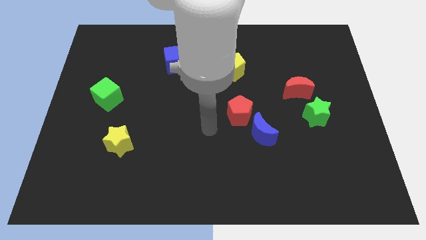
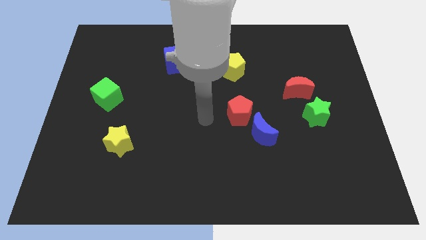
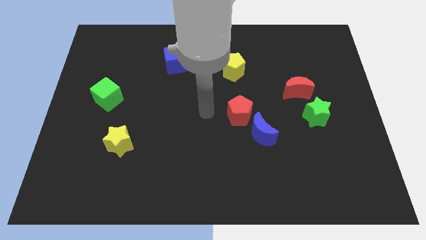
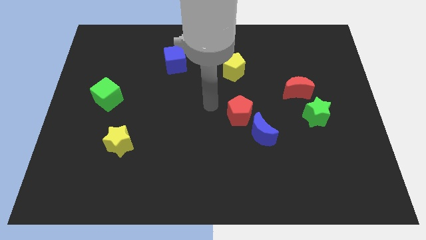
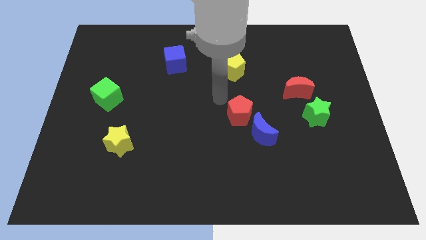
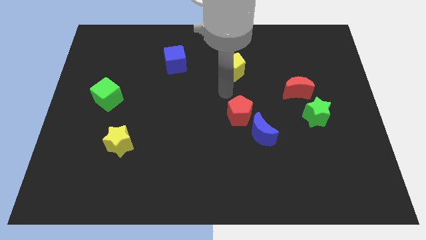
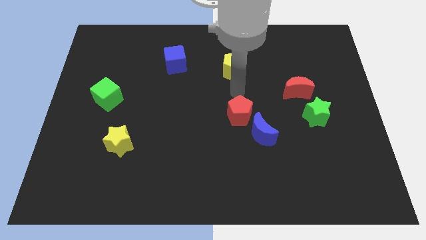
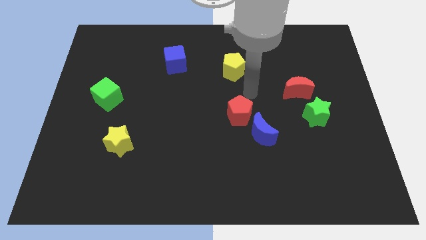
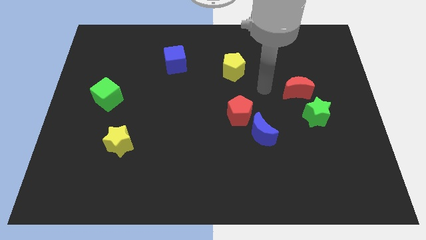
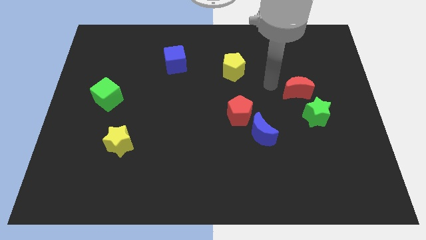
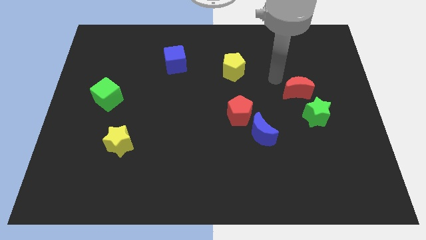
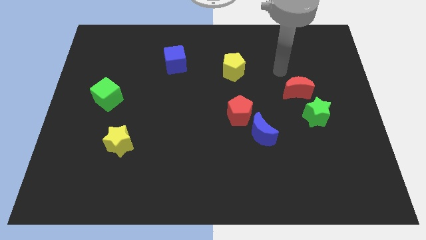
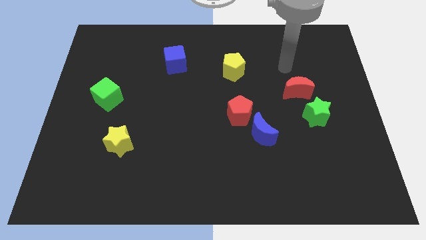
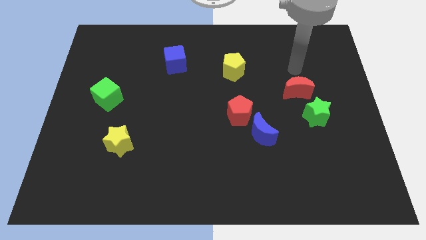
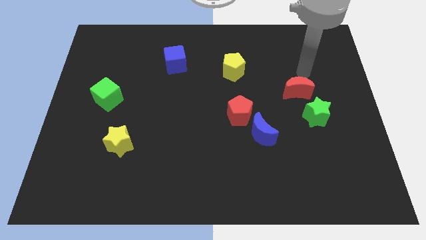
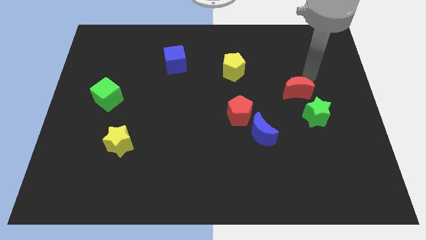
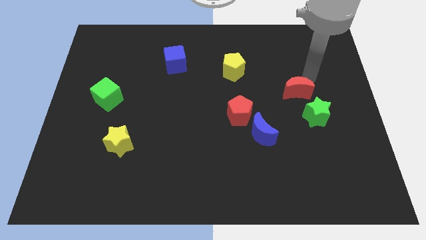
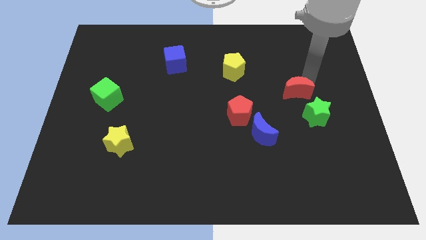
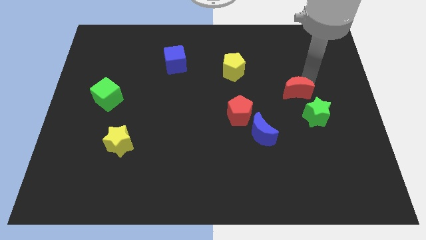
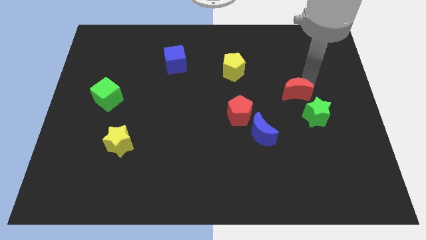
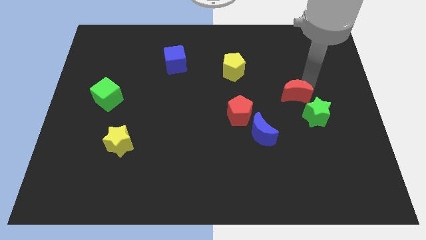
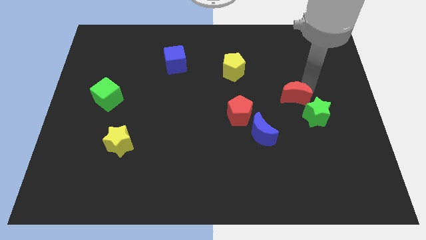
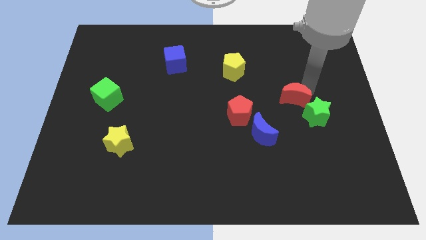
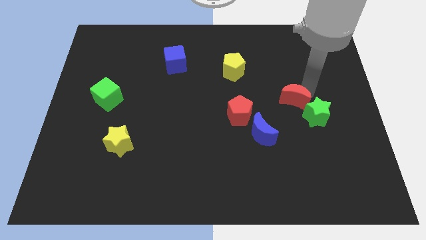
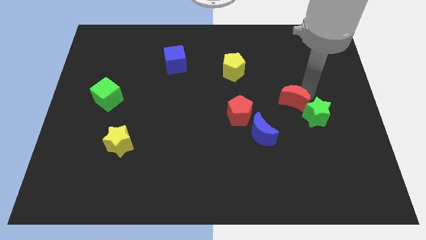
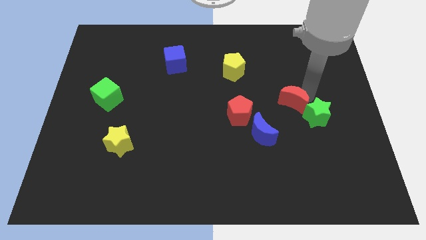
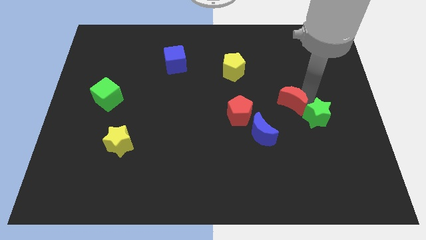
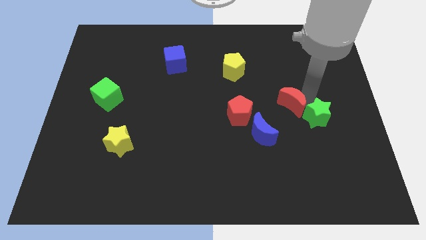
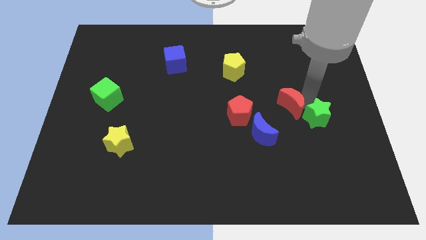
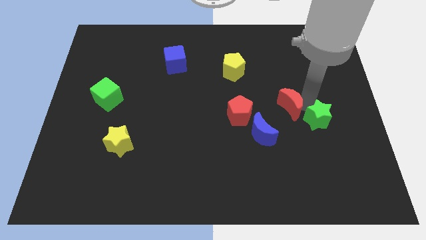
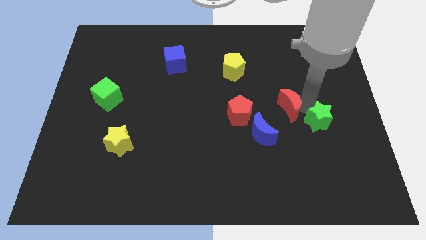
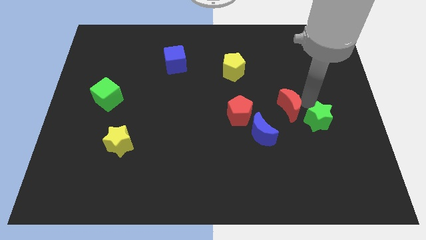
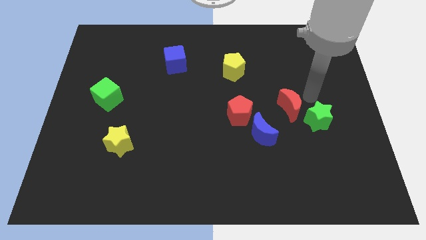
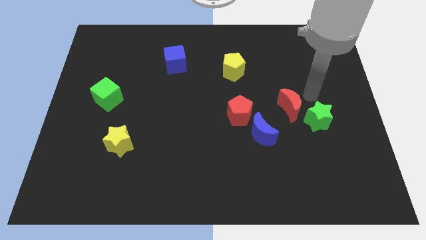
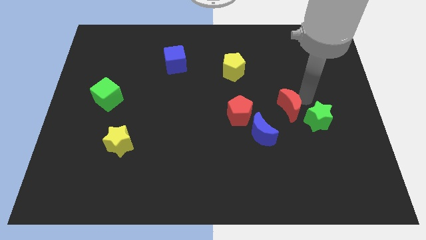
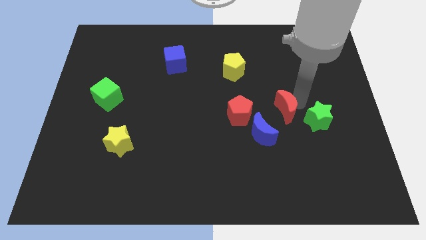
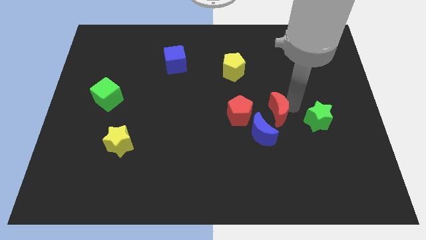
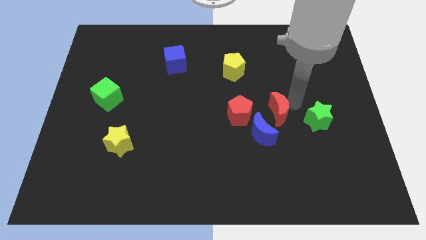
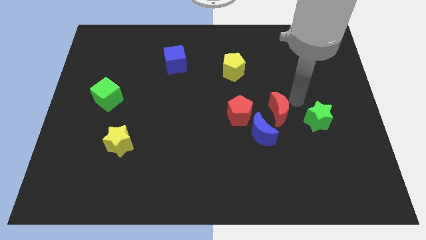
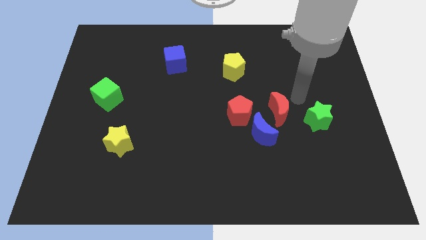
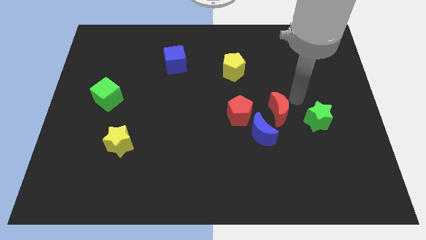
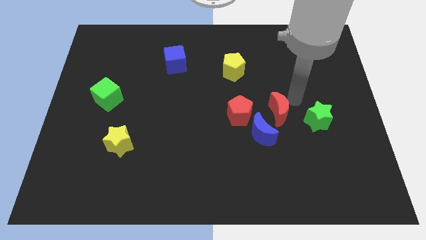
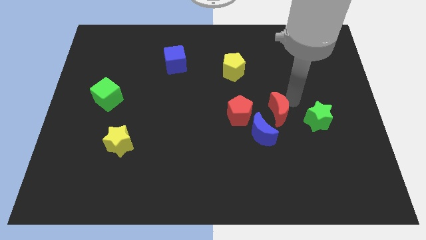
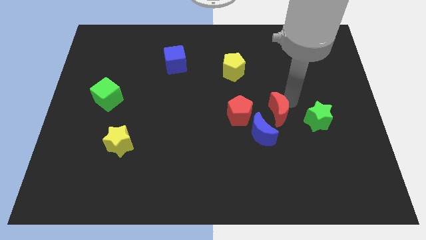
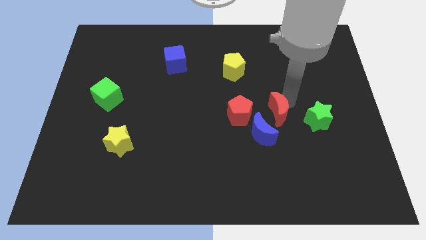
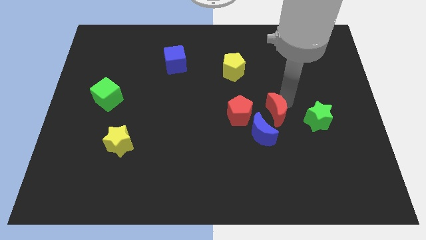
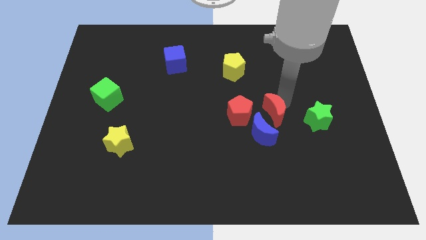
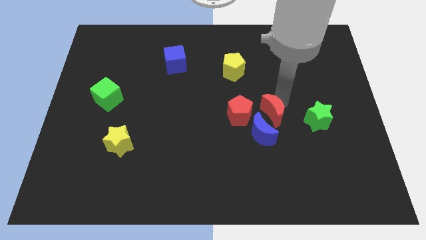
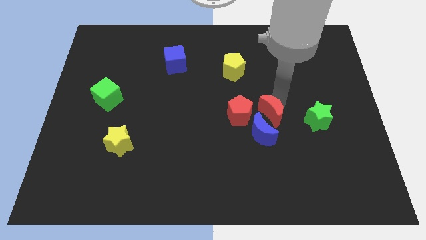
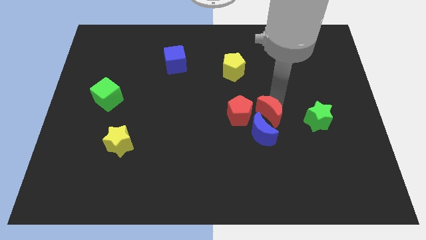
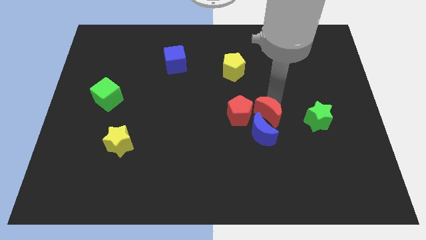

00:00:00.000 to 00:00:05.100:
push the red moon close to the blue moon

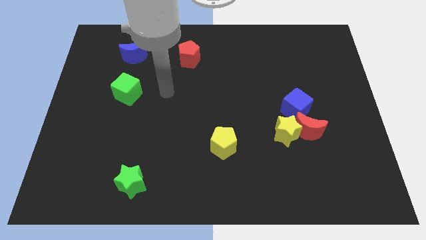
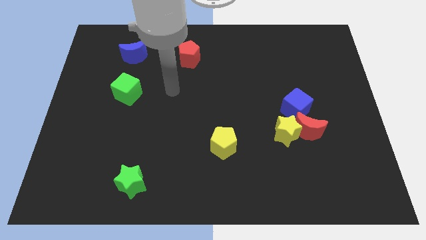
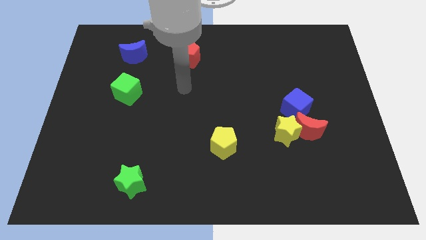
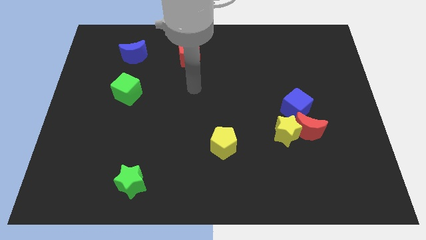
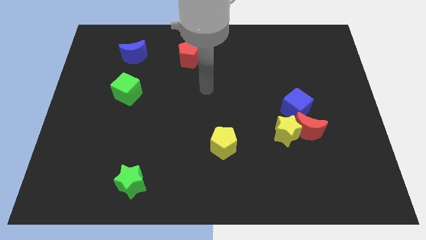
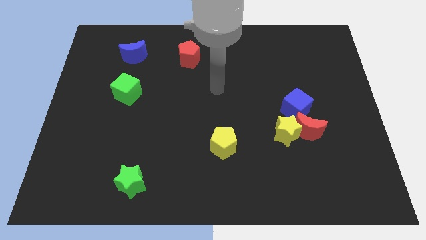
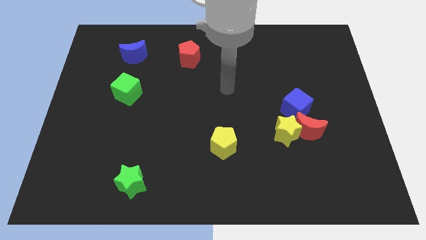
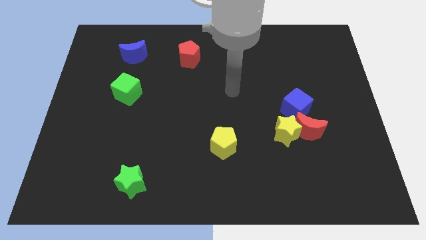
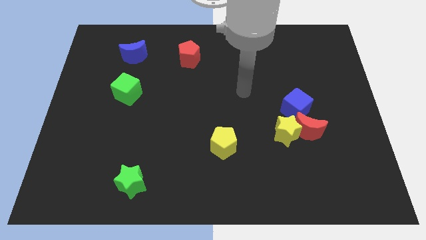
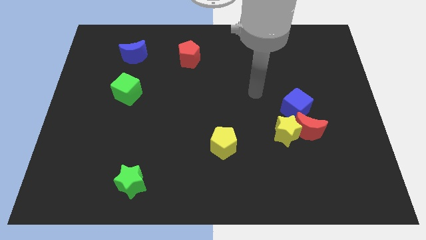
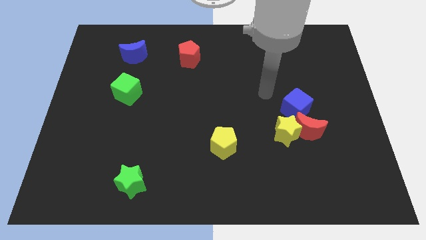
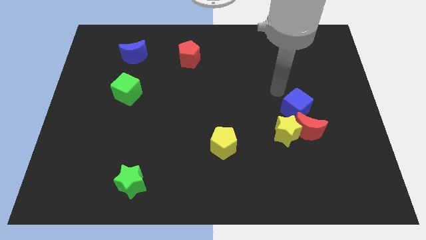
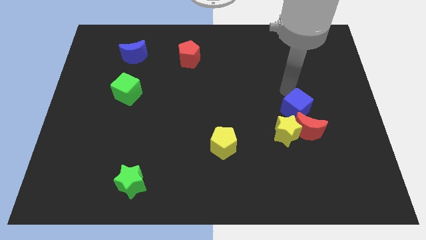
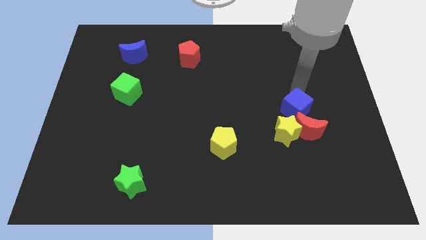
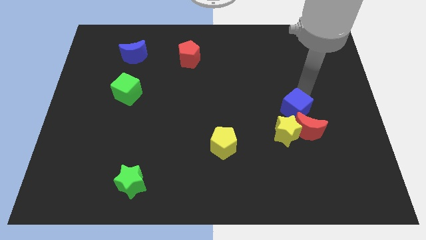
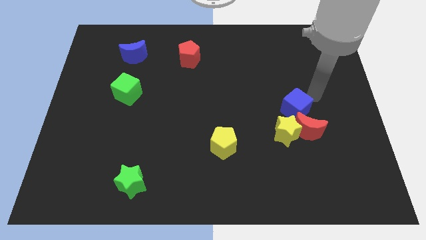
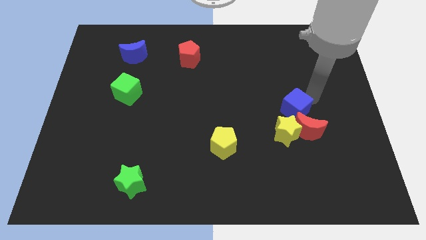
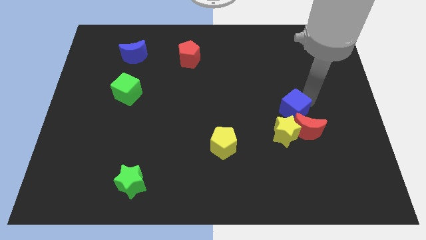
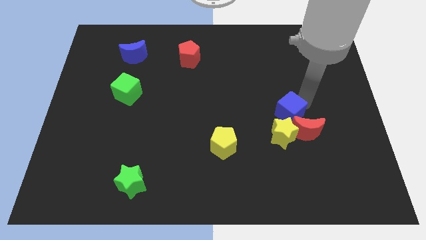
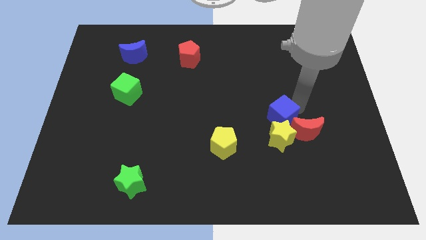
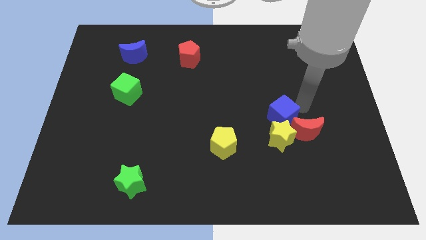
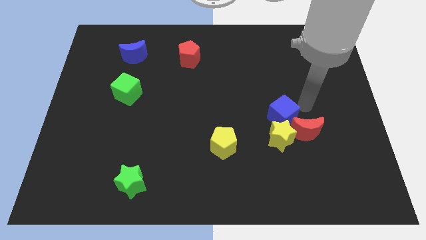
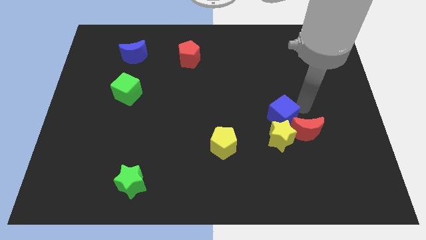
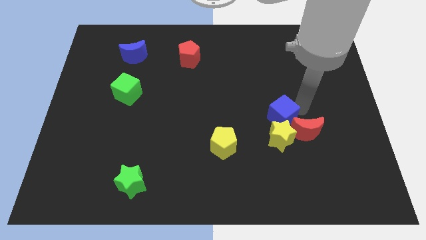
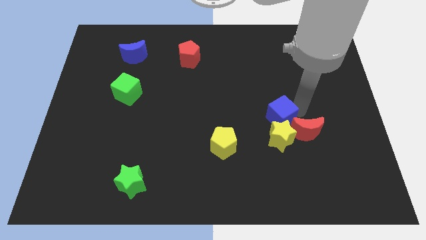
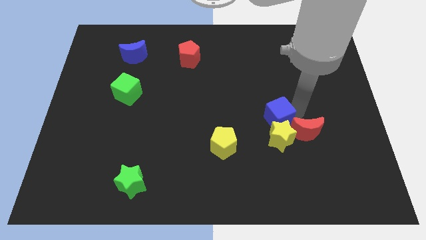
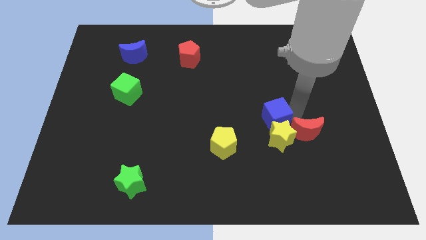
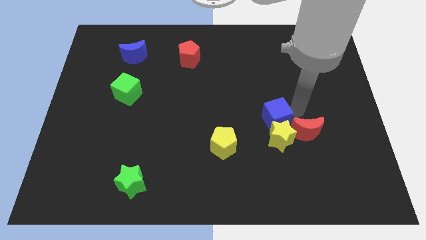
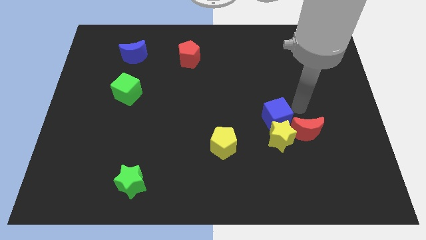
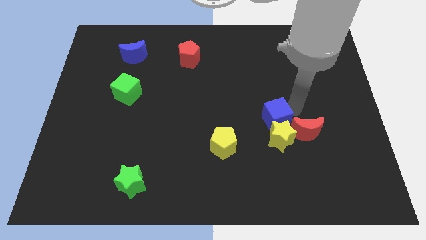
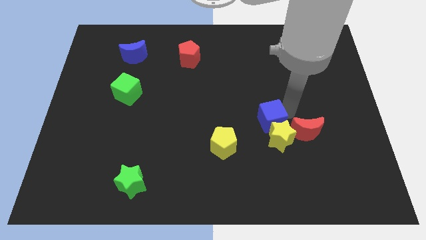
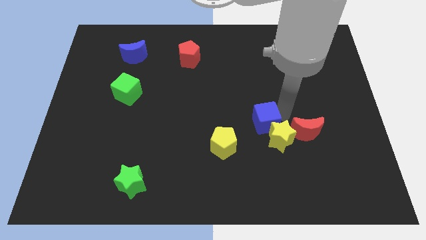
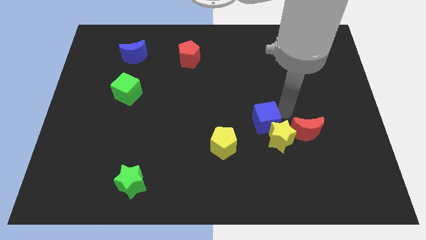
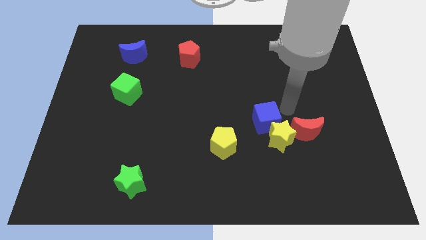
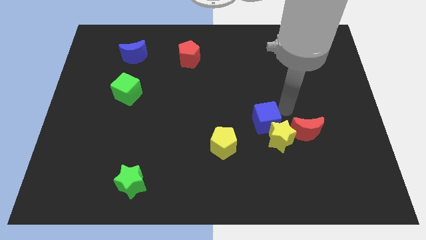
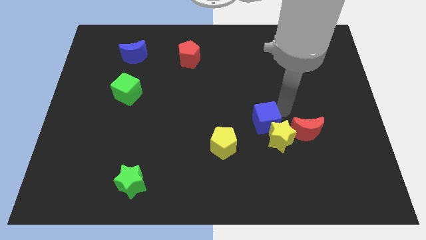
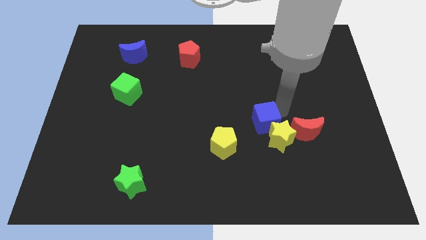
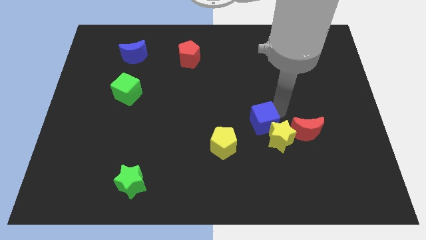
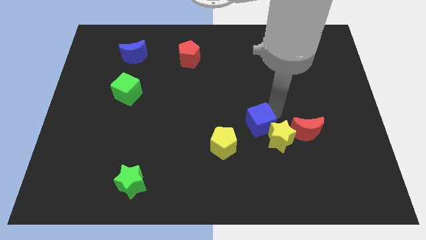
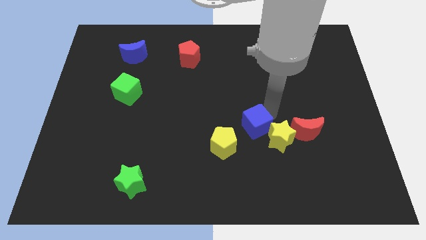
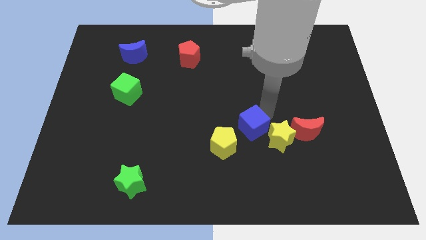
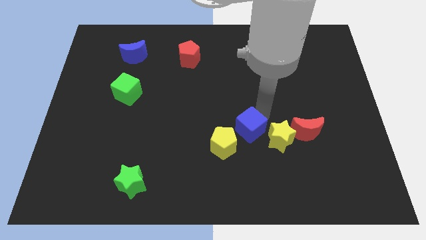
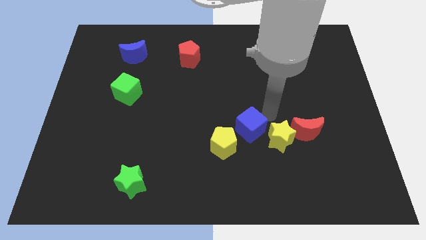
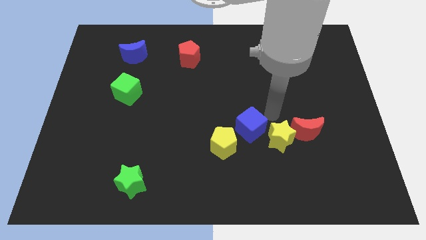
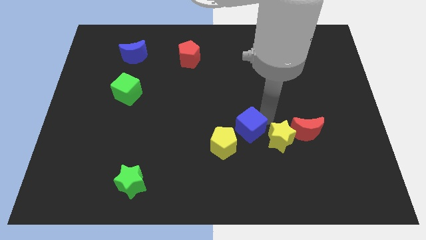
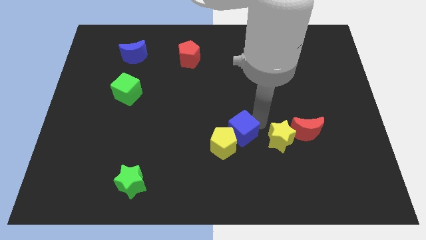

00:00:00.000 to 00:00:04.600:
move the blue cube to the yellow pentagon
